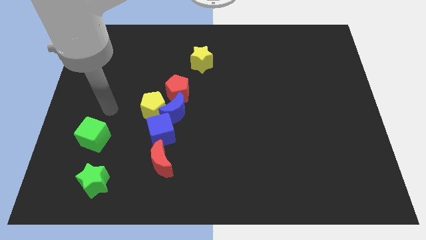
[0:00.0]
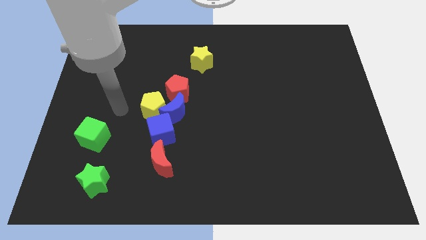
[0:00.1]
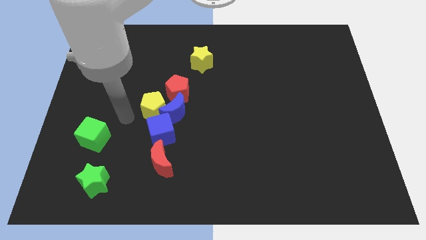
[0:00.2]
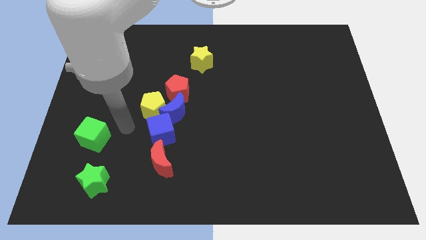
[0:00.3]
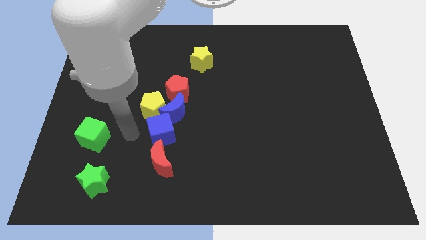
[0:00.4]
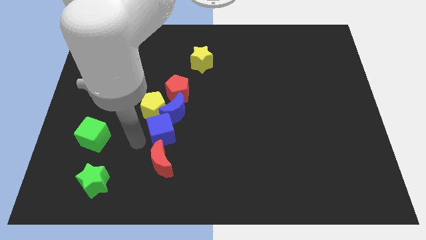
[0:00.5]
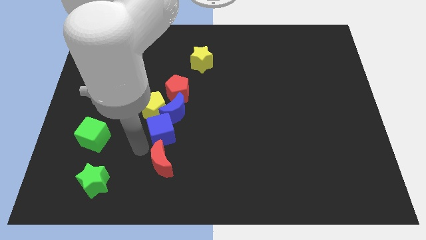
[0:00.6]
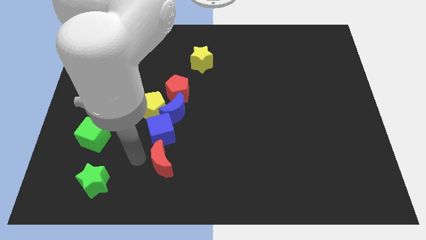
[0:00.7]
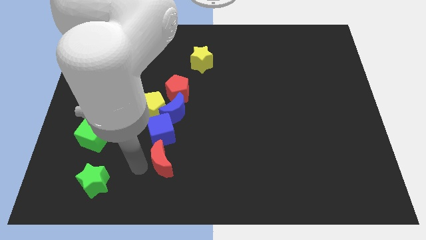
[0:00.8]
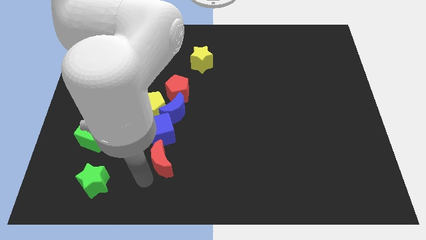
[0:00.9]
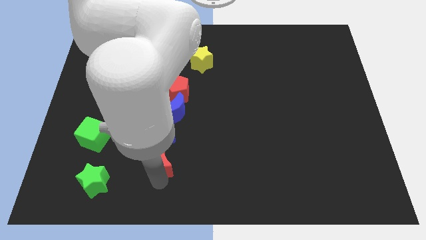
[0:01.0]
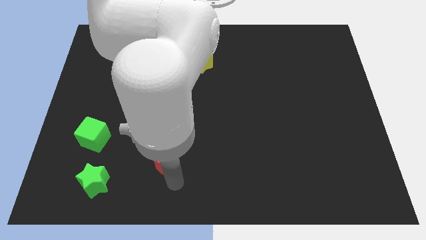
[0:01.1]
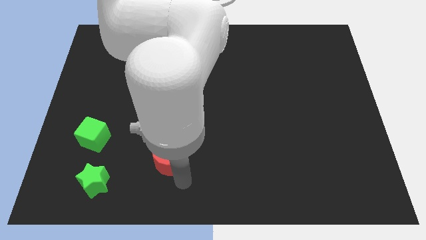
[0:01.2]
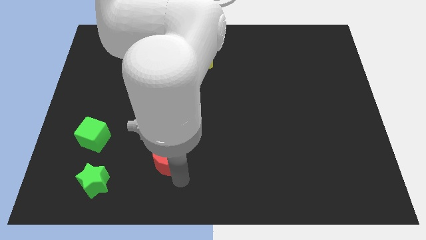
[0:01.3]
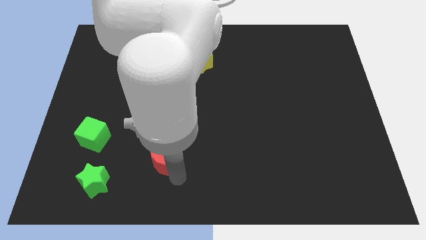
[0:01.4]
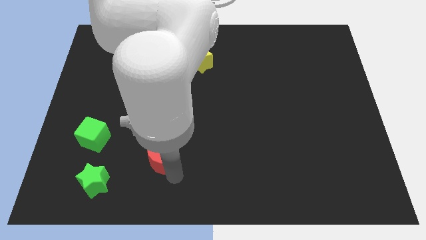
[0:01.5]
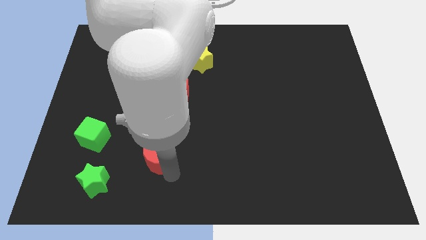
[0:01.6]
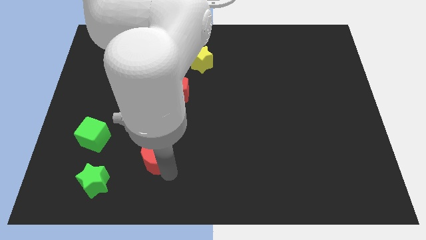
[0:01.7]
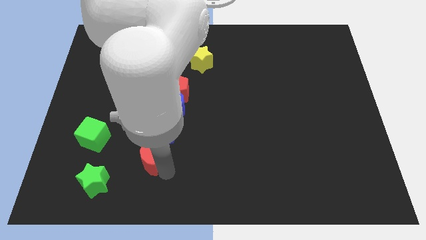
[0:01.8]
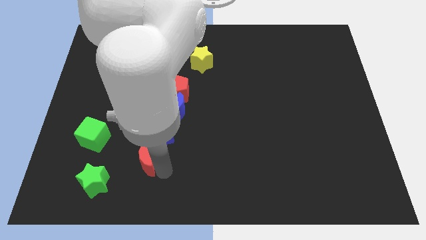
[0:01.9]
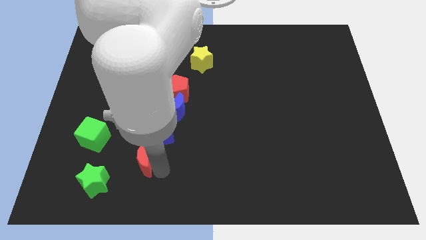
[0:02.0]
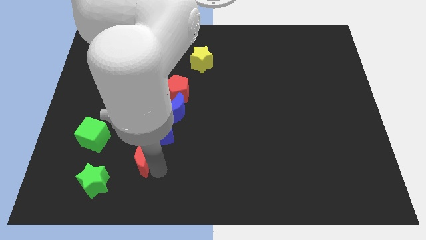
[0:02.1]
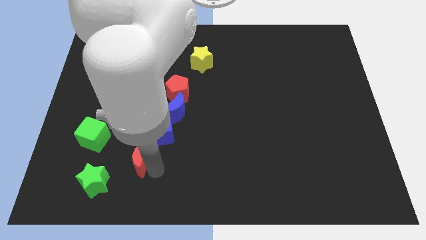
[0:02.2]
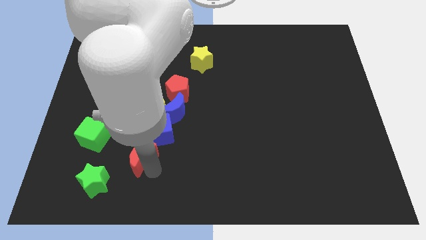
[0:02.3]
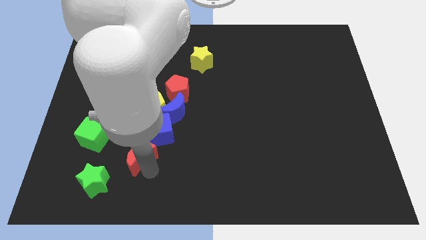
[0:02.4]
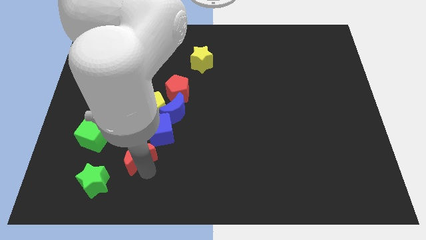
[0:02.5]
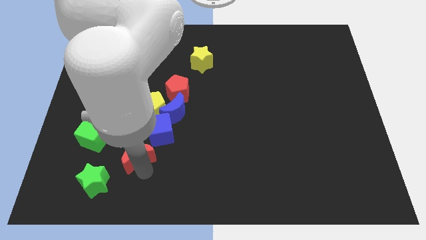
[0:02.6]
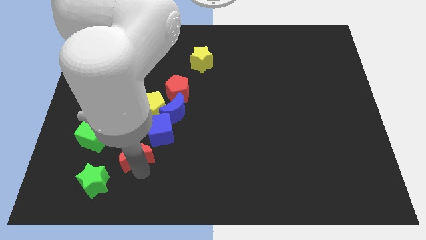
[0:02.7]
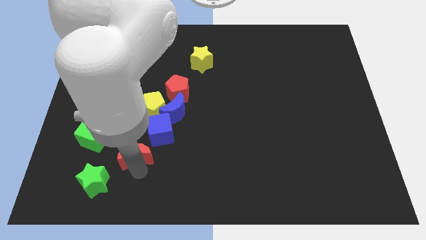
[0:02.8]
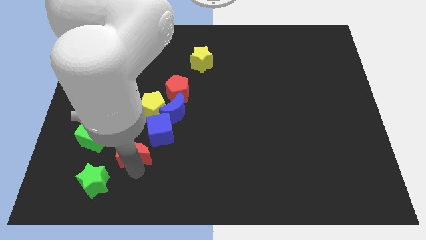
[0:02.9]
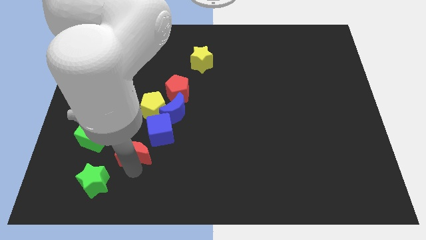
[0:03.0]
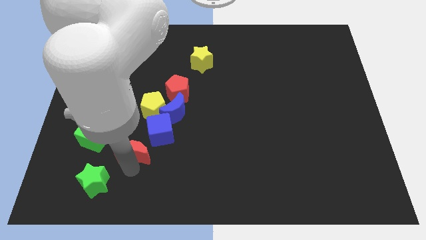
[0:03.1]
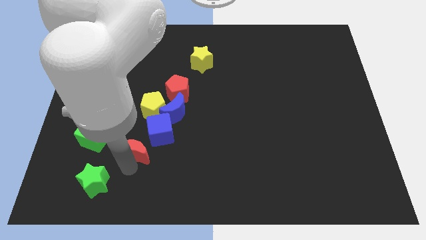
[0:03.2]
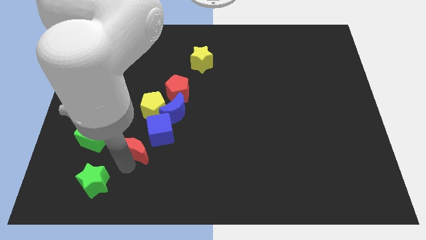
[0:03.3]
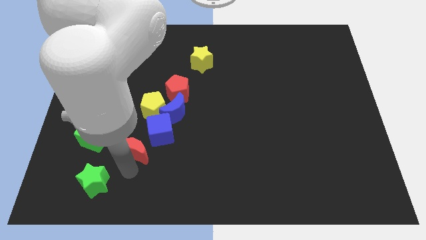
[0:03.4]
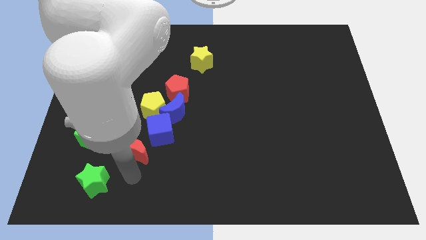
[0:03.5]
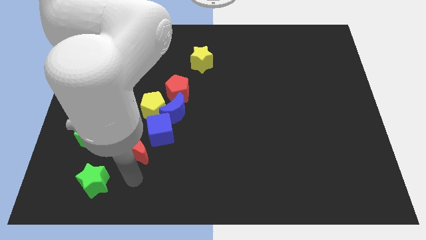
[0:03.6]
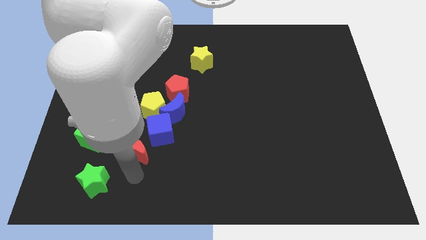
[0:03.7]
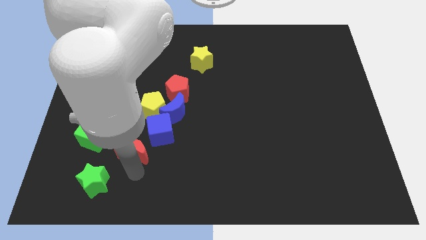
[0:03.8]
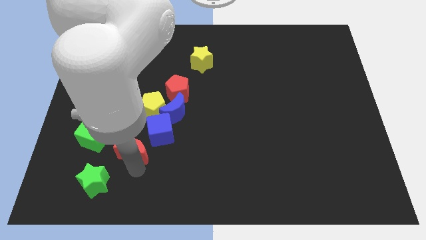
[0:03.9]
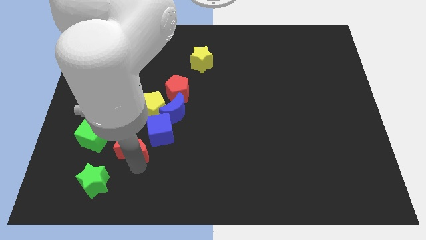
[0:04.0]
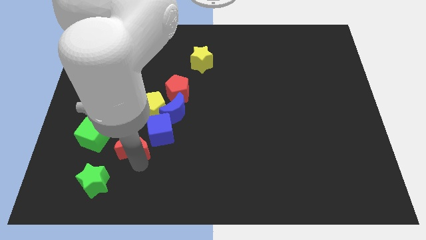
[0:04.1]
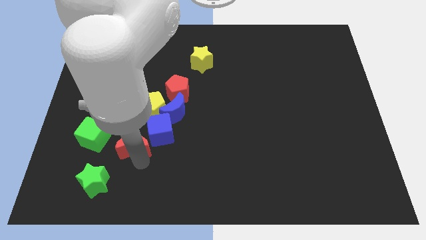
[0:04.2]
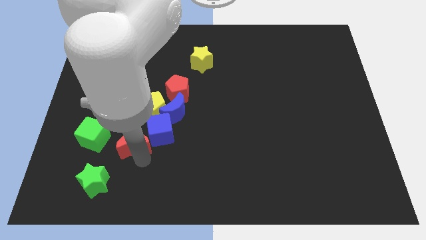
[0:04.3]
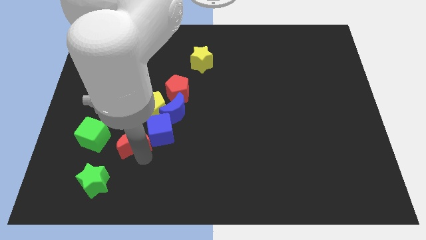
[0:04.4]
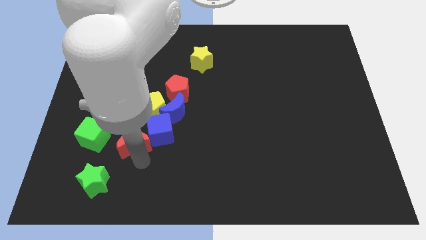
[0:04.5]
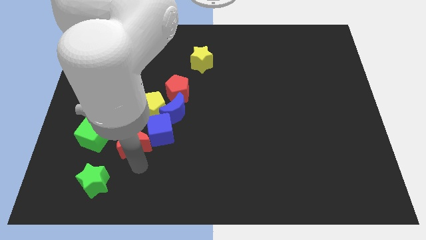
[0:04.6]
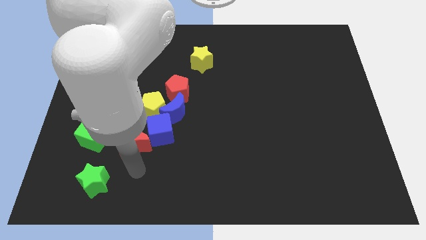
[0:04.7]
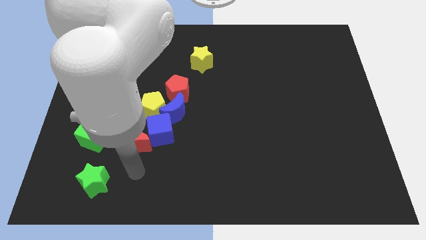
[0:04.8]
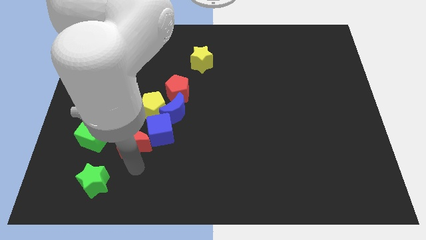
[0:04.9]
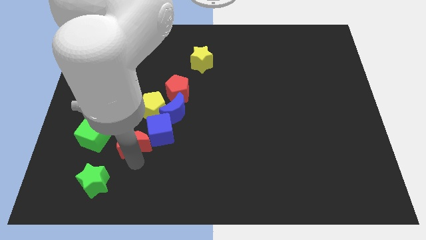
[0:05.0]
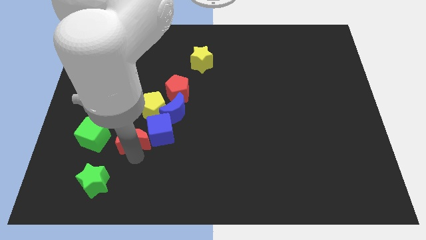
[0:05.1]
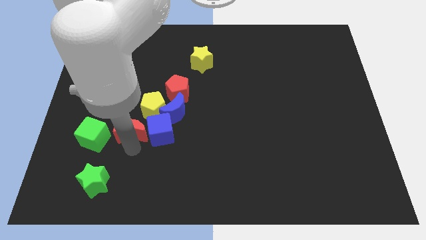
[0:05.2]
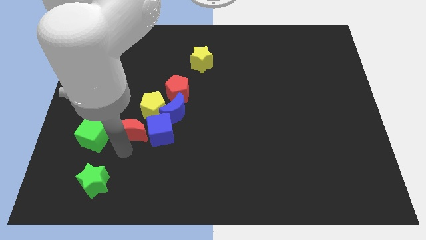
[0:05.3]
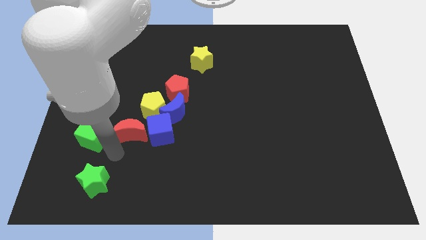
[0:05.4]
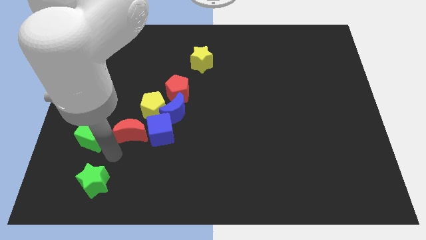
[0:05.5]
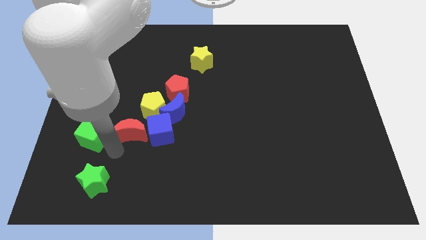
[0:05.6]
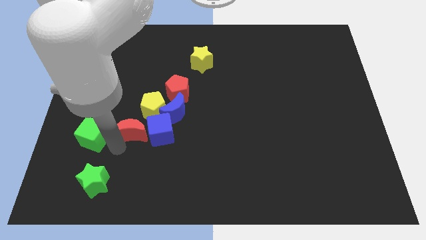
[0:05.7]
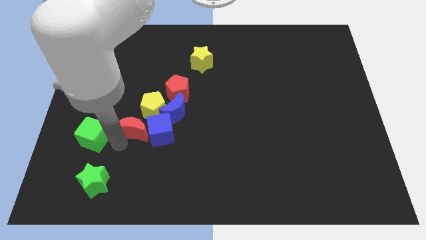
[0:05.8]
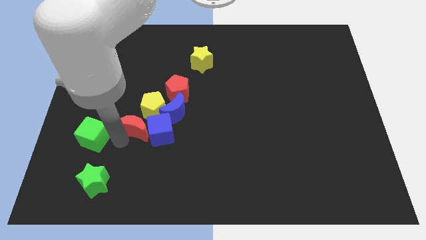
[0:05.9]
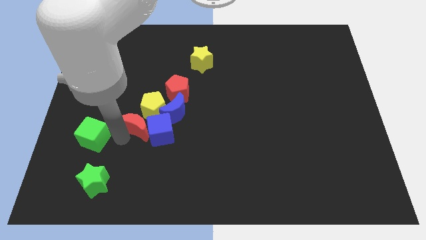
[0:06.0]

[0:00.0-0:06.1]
slide the red moon next to the yellow pentagon

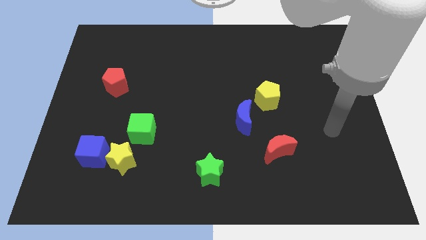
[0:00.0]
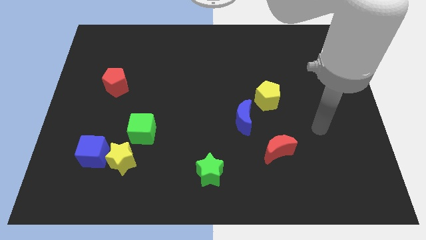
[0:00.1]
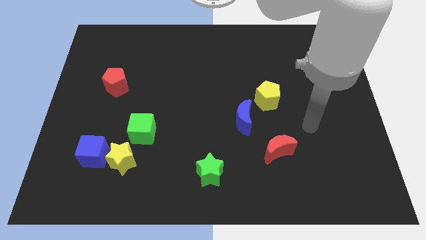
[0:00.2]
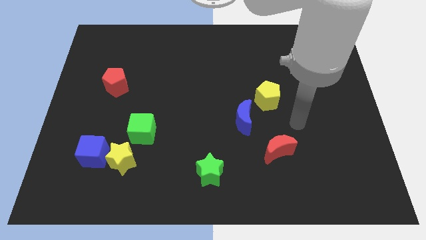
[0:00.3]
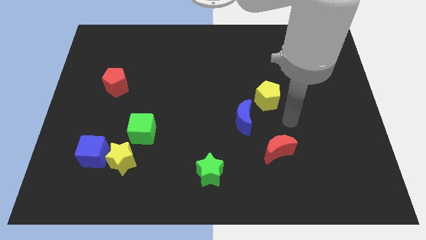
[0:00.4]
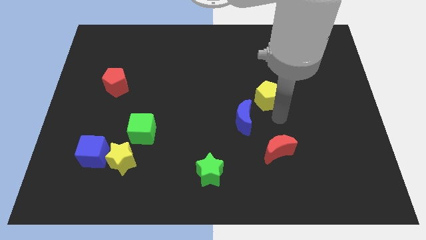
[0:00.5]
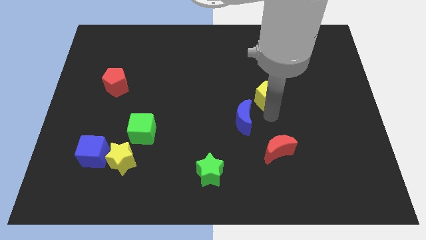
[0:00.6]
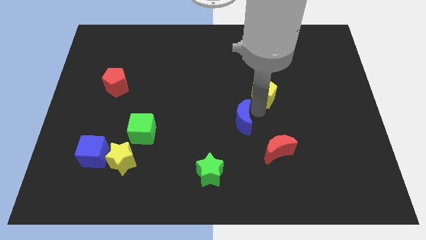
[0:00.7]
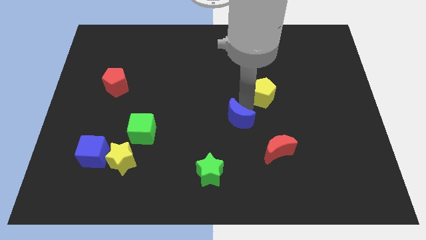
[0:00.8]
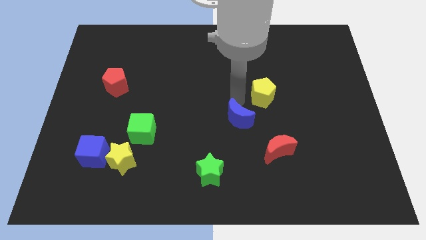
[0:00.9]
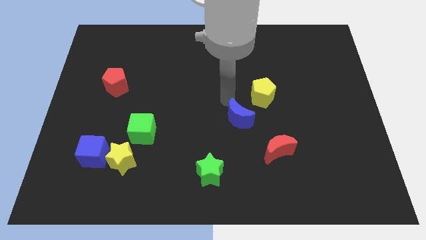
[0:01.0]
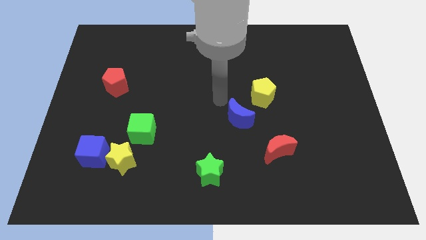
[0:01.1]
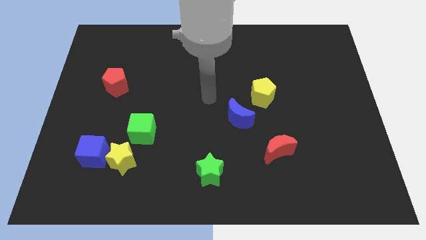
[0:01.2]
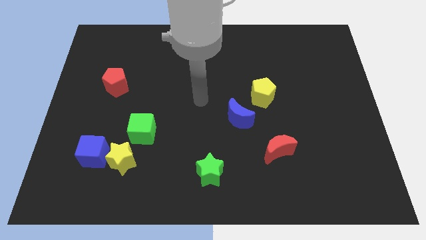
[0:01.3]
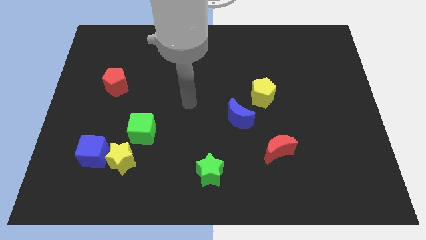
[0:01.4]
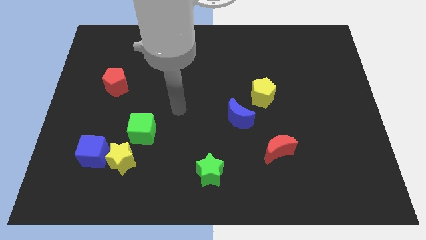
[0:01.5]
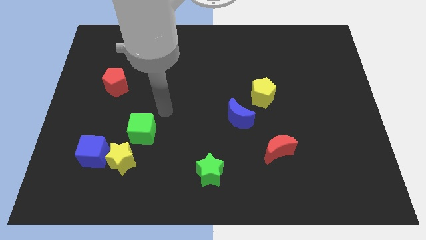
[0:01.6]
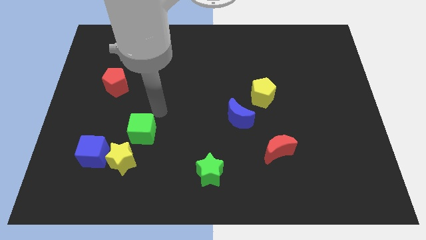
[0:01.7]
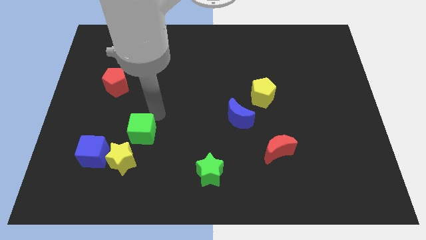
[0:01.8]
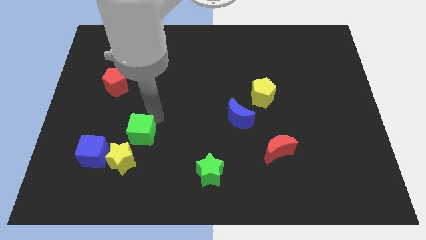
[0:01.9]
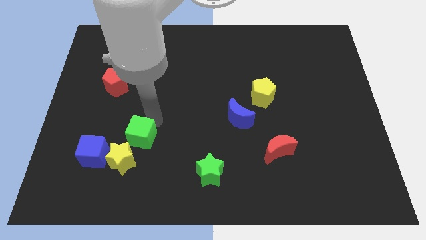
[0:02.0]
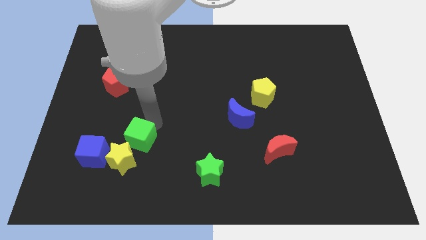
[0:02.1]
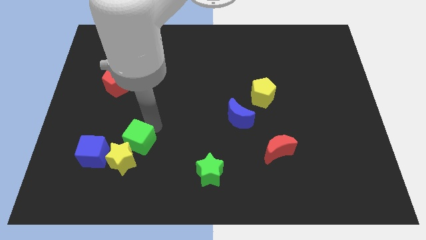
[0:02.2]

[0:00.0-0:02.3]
put the green cube next to the yellow star
